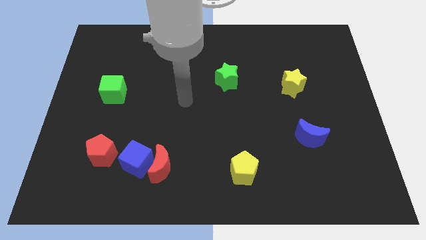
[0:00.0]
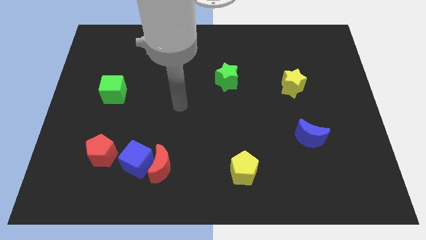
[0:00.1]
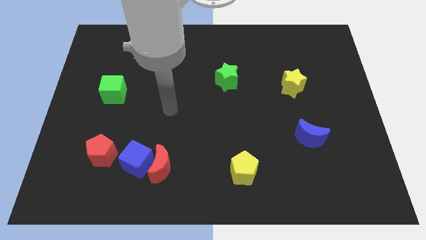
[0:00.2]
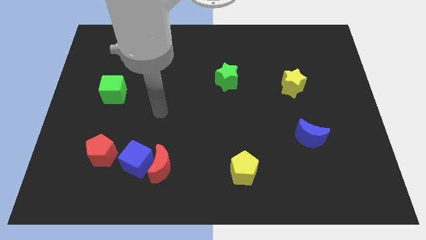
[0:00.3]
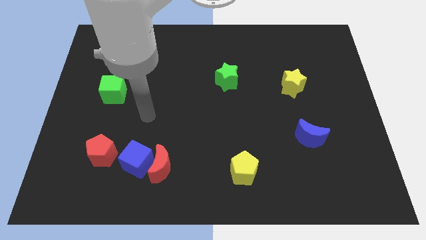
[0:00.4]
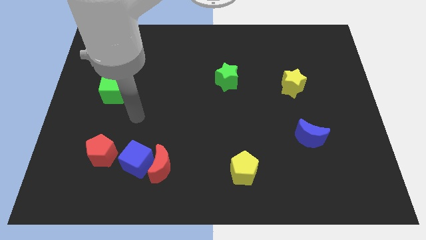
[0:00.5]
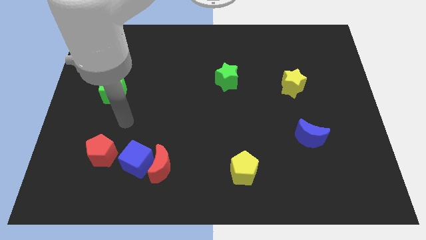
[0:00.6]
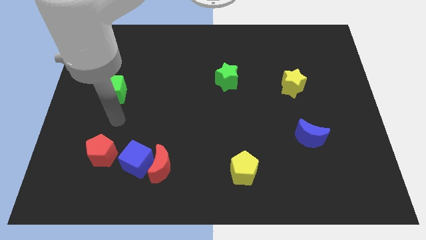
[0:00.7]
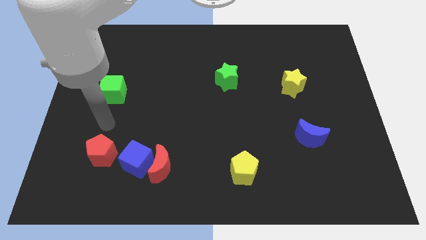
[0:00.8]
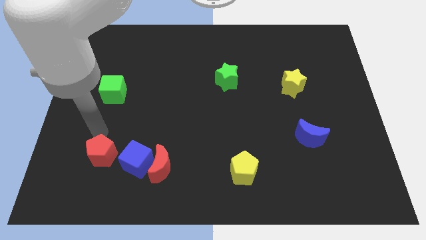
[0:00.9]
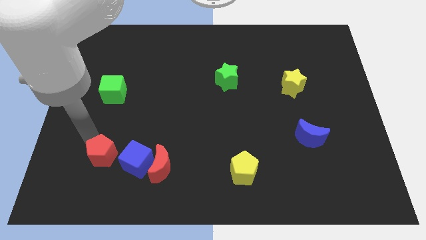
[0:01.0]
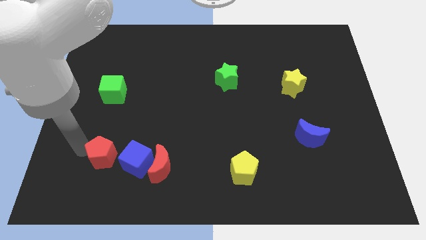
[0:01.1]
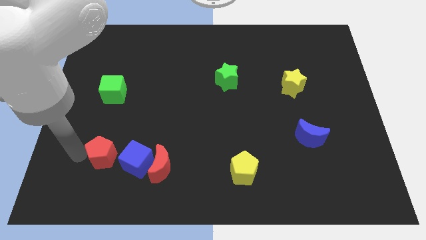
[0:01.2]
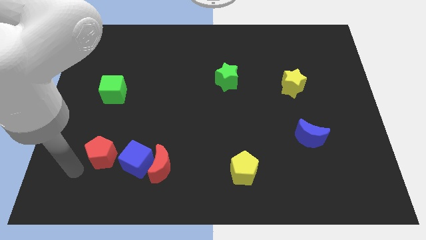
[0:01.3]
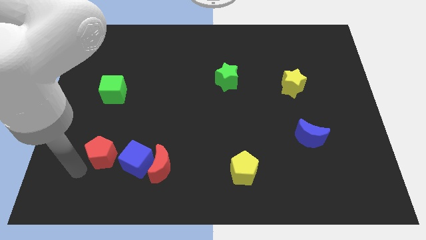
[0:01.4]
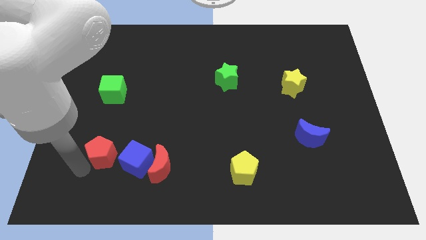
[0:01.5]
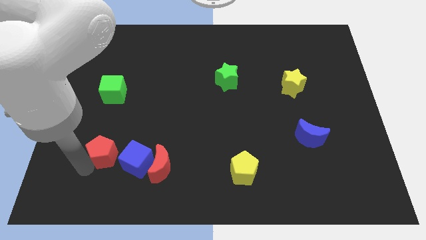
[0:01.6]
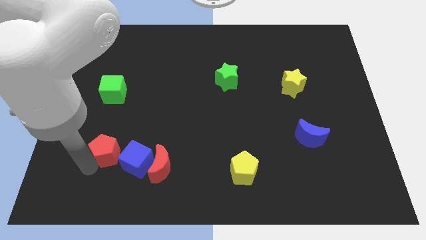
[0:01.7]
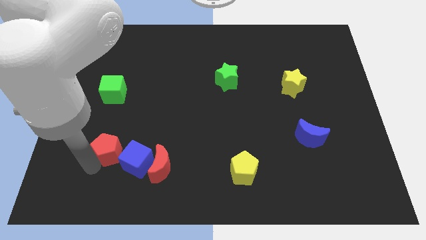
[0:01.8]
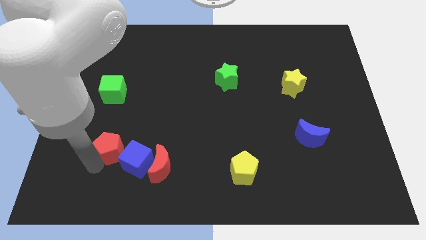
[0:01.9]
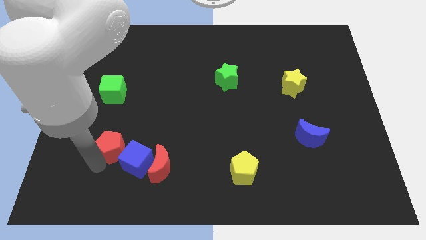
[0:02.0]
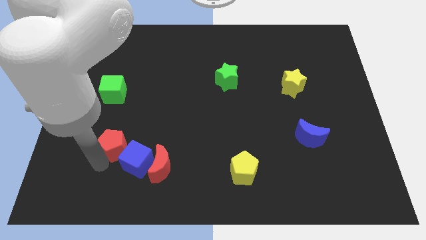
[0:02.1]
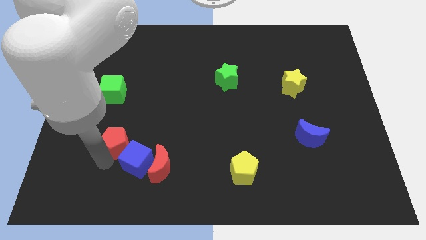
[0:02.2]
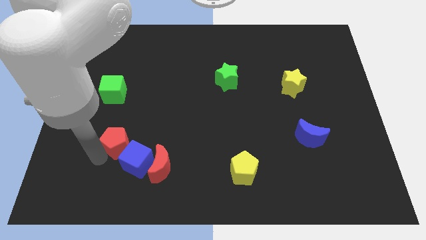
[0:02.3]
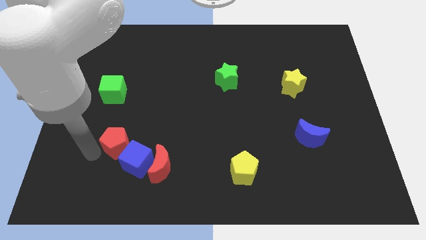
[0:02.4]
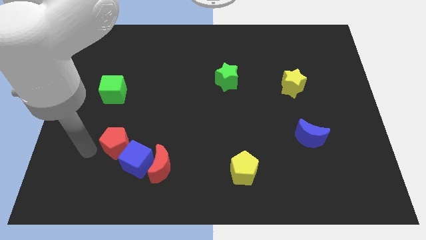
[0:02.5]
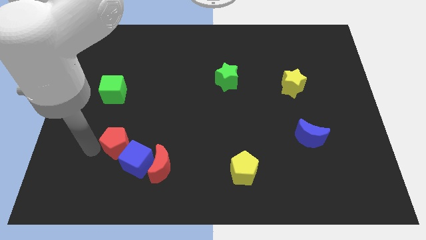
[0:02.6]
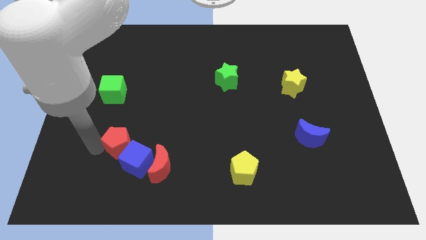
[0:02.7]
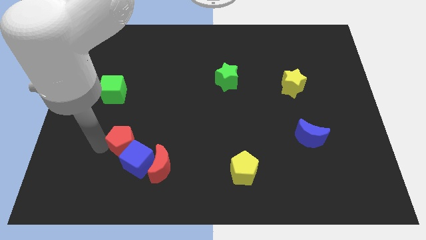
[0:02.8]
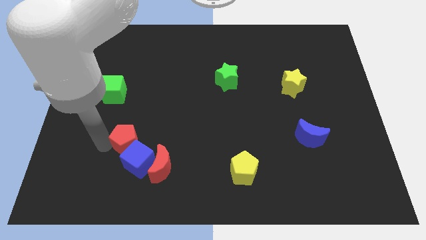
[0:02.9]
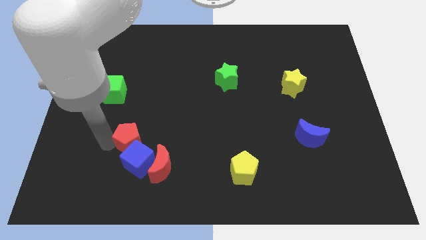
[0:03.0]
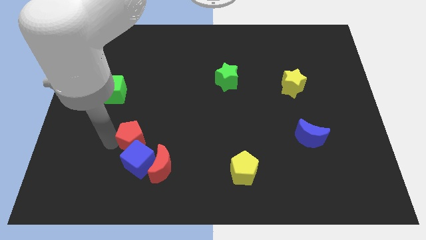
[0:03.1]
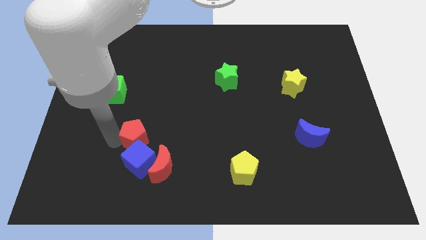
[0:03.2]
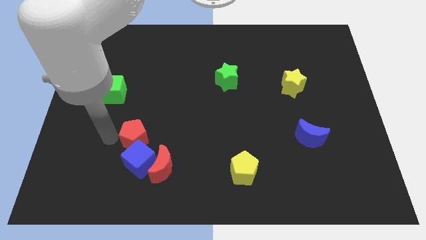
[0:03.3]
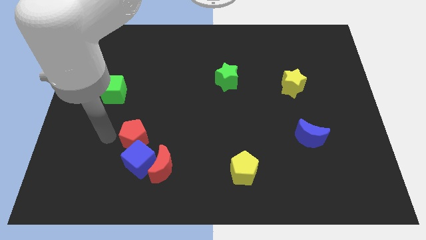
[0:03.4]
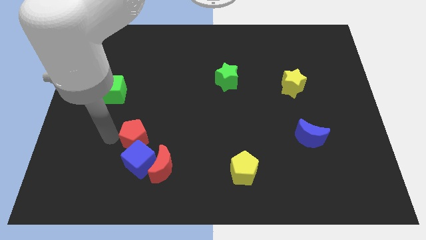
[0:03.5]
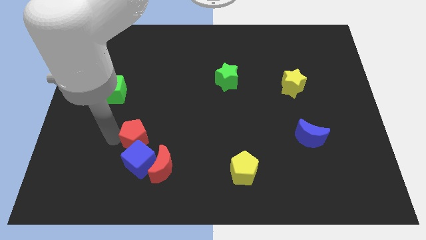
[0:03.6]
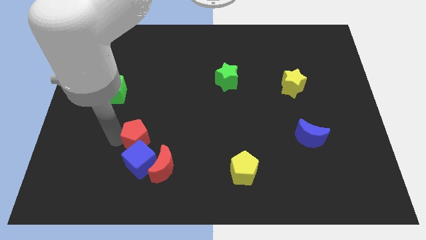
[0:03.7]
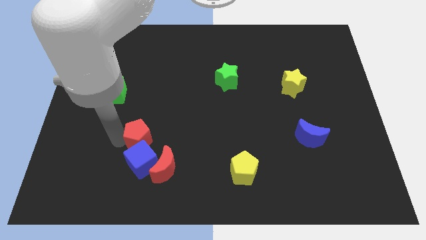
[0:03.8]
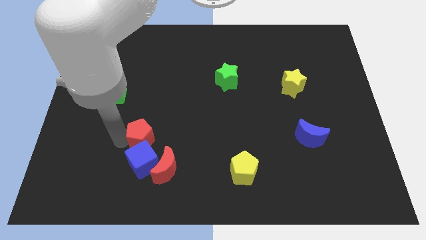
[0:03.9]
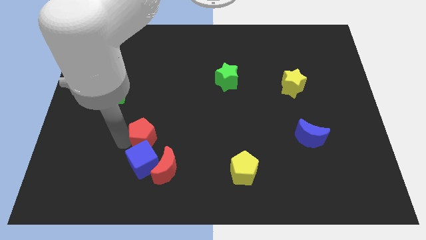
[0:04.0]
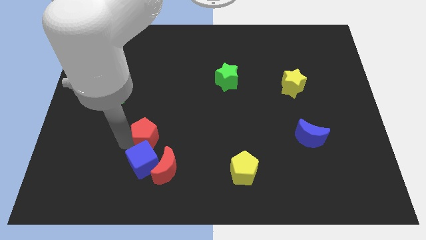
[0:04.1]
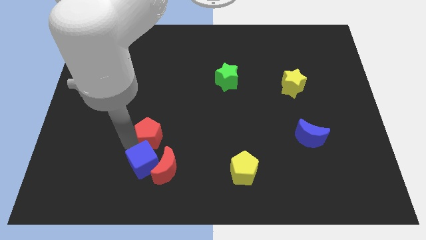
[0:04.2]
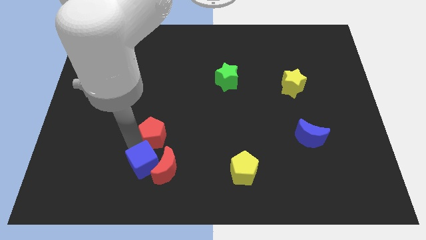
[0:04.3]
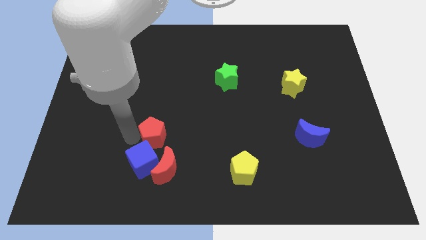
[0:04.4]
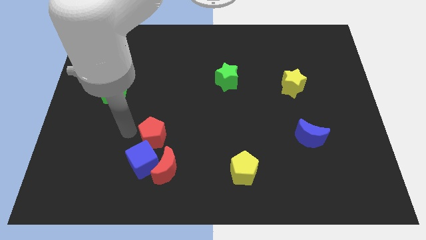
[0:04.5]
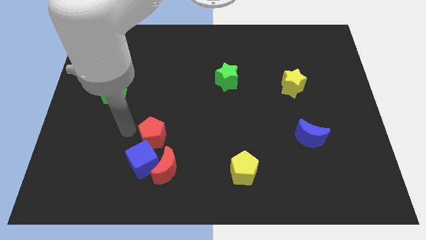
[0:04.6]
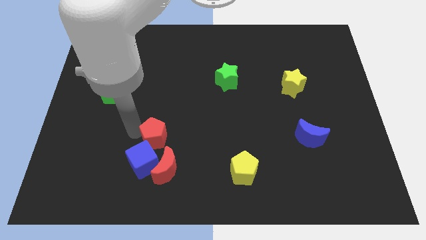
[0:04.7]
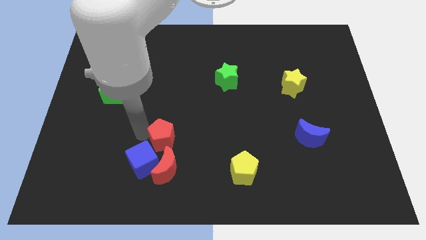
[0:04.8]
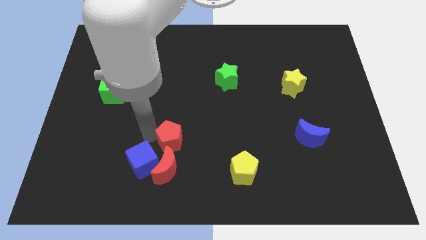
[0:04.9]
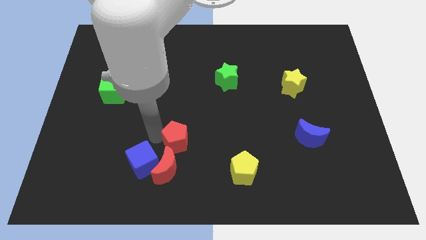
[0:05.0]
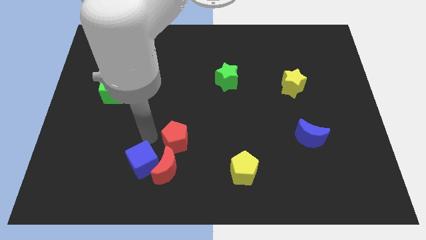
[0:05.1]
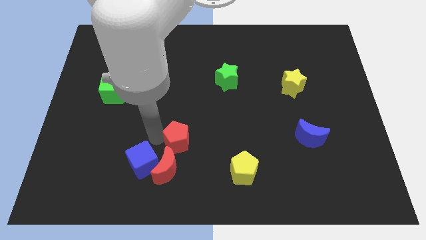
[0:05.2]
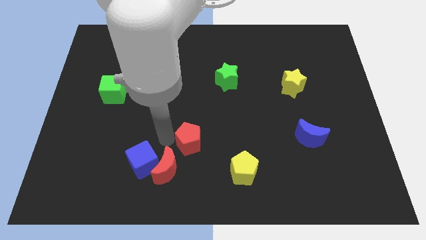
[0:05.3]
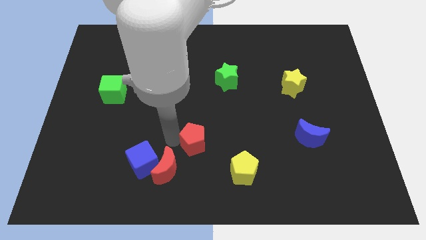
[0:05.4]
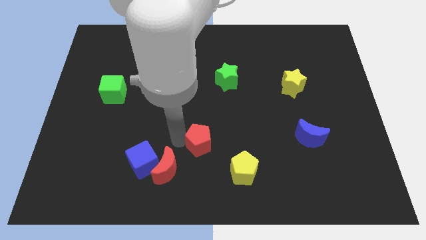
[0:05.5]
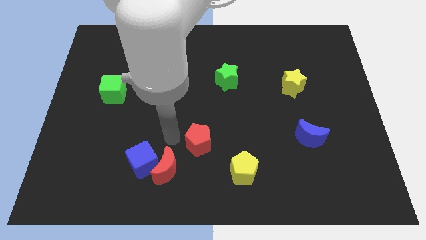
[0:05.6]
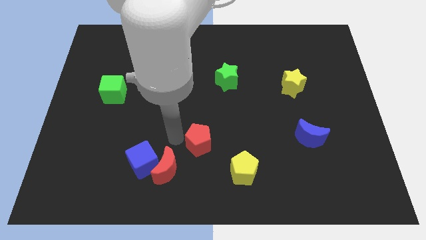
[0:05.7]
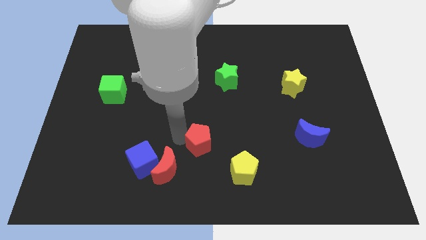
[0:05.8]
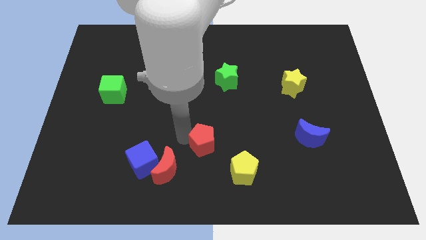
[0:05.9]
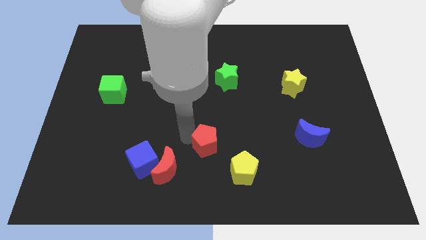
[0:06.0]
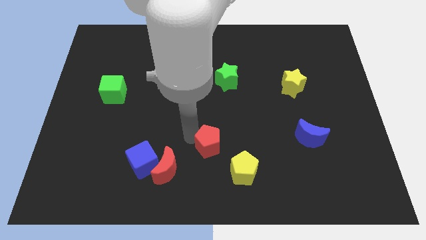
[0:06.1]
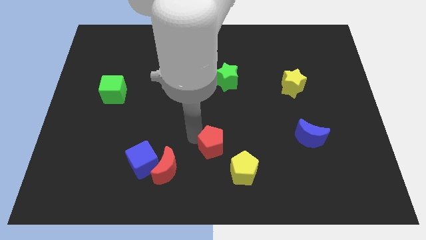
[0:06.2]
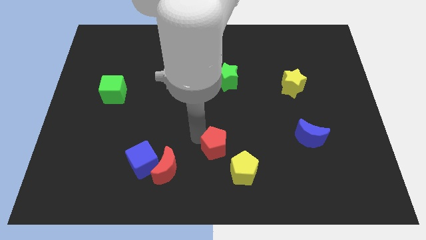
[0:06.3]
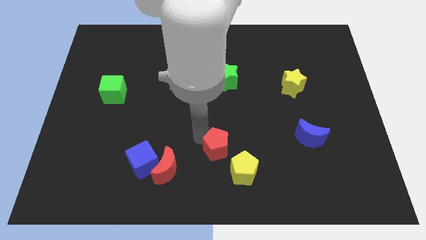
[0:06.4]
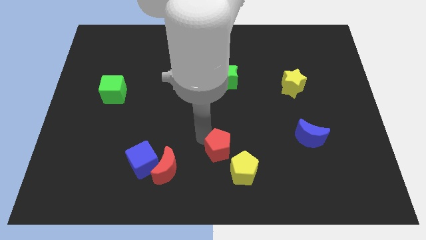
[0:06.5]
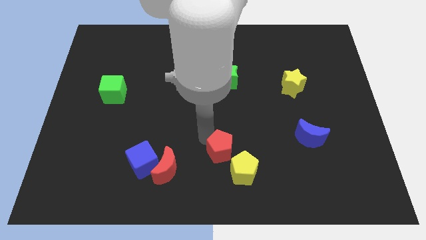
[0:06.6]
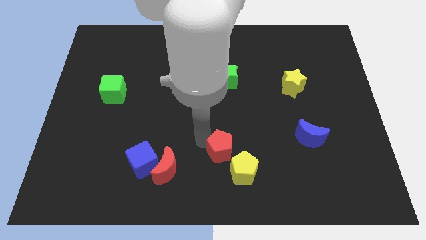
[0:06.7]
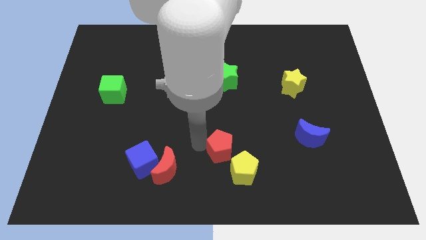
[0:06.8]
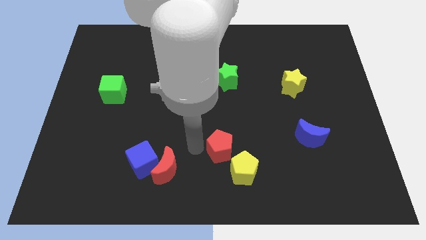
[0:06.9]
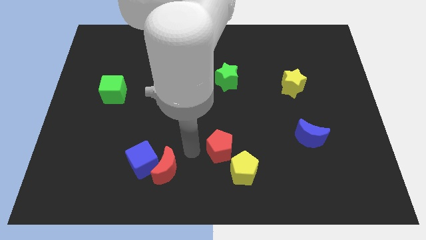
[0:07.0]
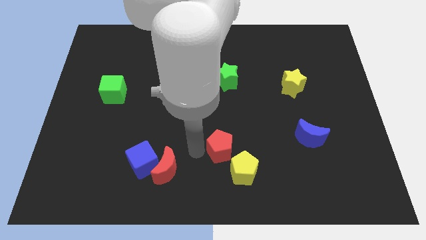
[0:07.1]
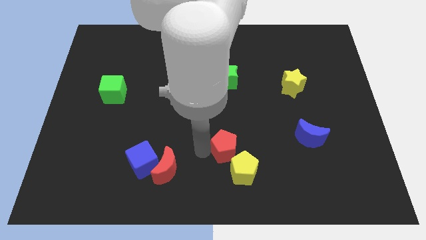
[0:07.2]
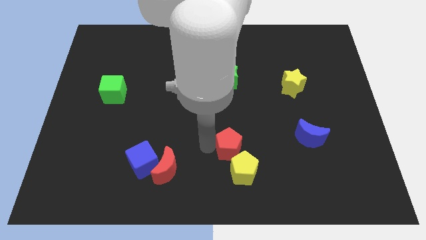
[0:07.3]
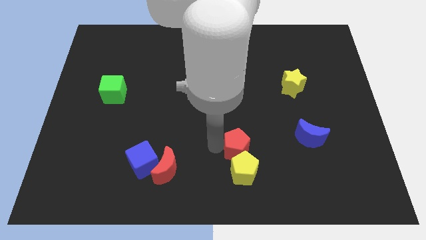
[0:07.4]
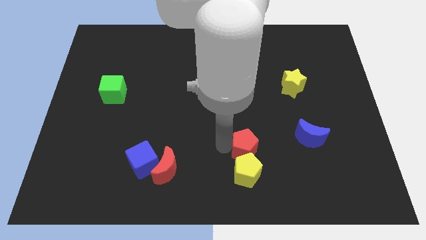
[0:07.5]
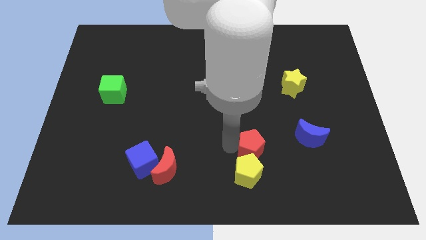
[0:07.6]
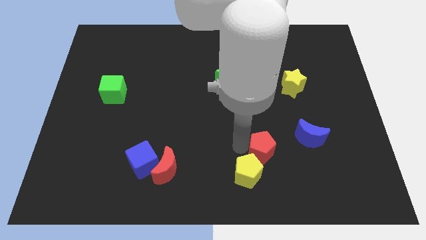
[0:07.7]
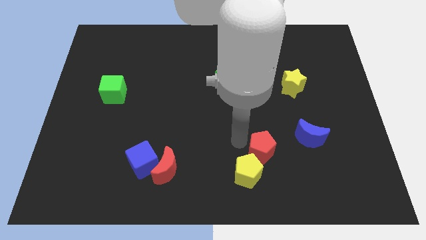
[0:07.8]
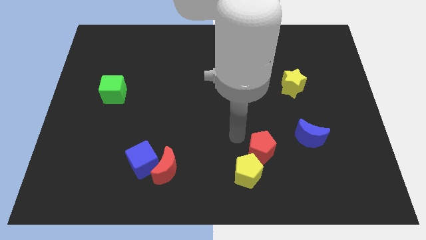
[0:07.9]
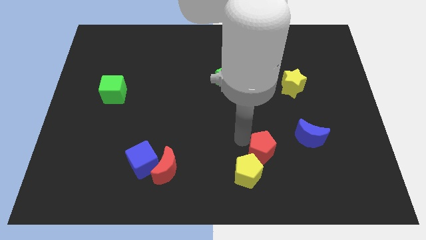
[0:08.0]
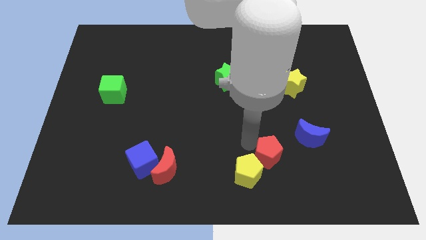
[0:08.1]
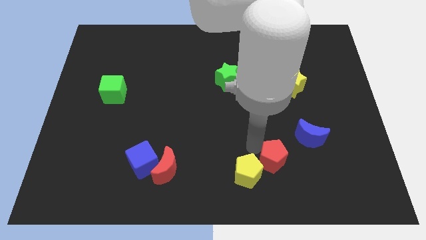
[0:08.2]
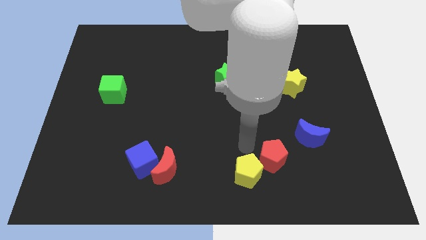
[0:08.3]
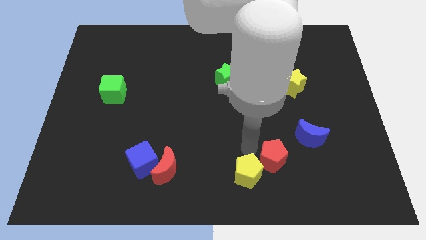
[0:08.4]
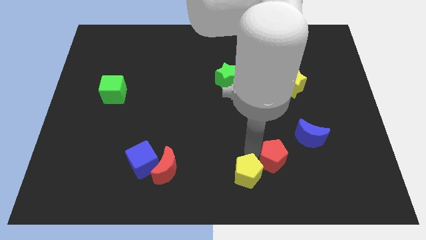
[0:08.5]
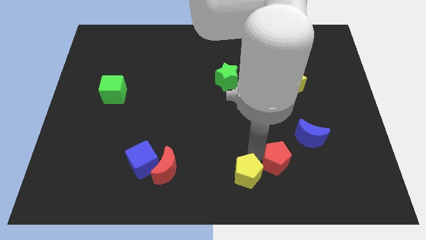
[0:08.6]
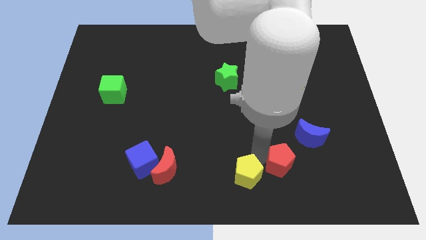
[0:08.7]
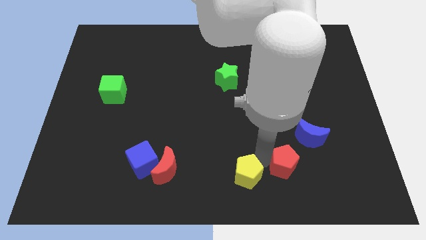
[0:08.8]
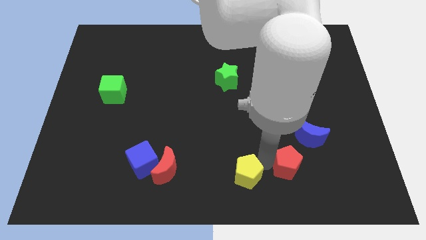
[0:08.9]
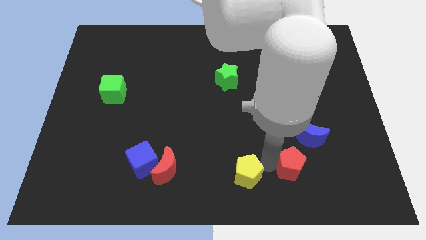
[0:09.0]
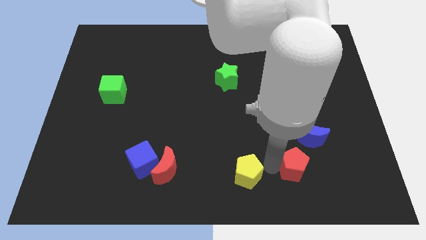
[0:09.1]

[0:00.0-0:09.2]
move the red pentagon to the bottom side of the blue moon
